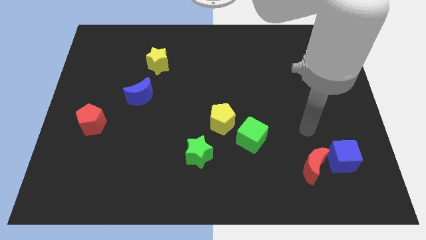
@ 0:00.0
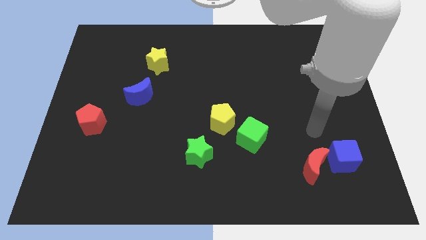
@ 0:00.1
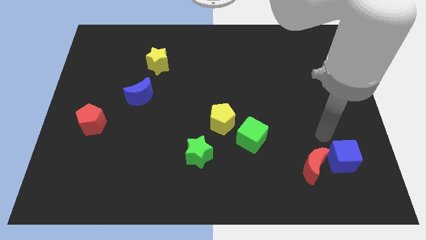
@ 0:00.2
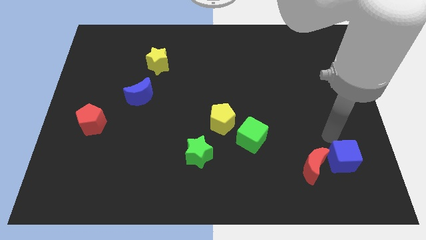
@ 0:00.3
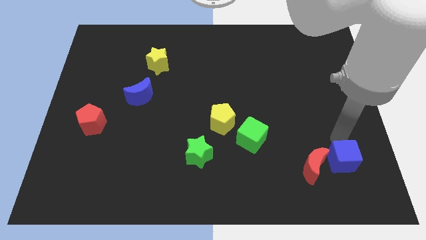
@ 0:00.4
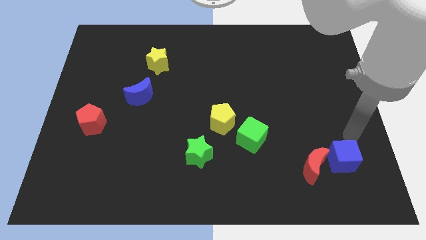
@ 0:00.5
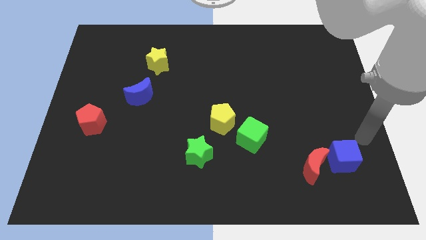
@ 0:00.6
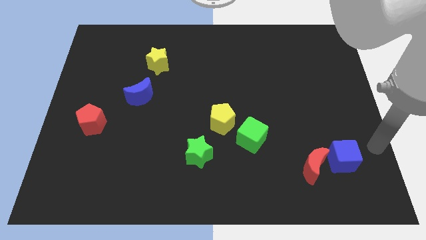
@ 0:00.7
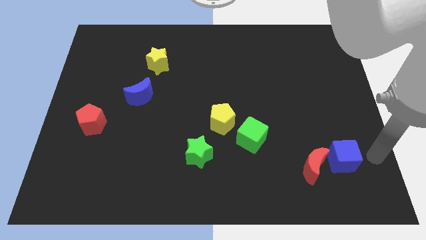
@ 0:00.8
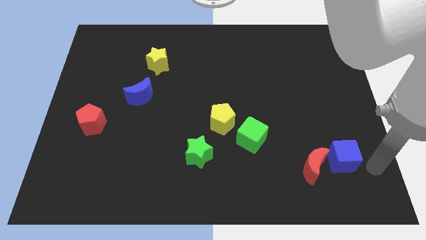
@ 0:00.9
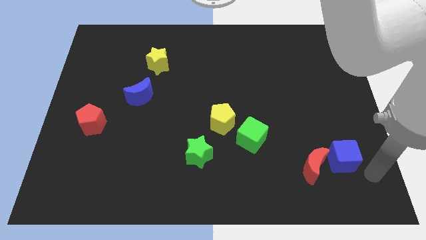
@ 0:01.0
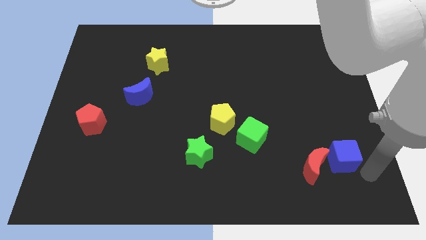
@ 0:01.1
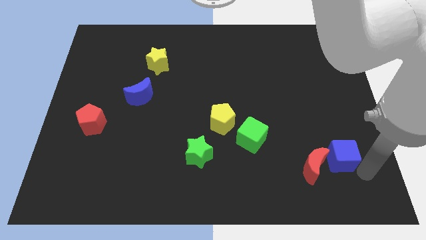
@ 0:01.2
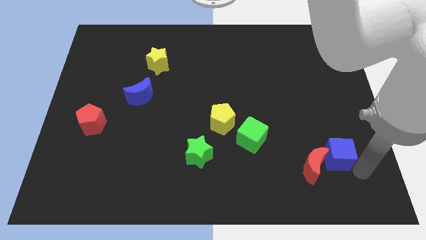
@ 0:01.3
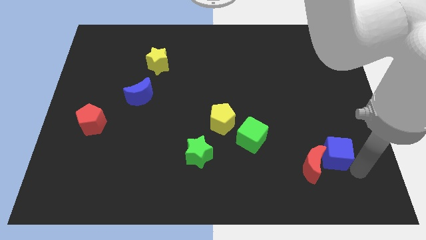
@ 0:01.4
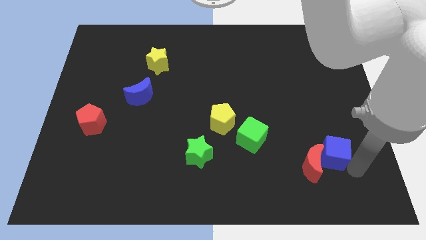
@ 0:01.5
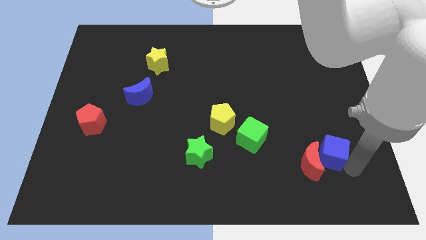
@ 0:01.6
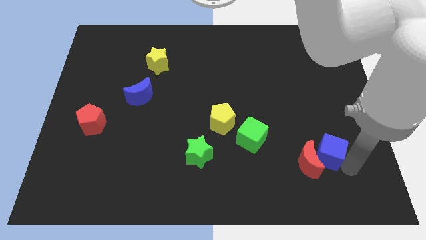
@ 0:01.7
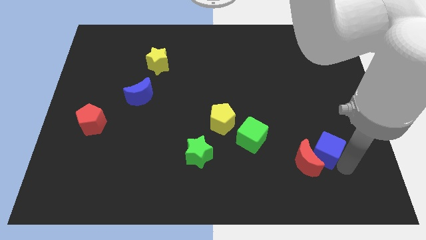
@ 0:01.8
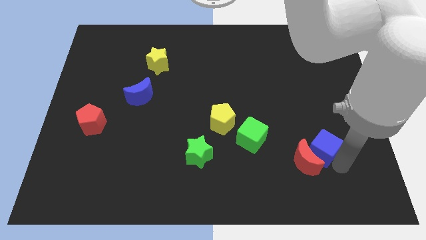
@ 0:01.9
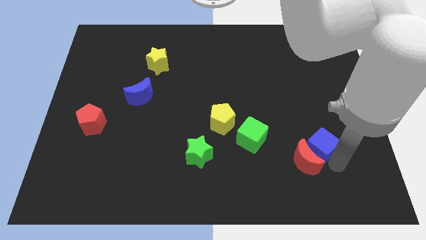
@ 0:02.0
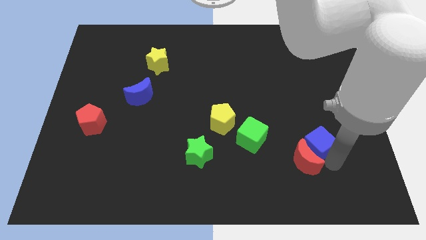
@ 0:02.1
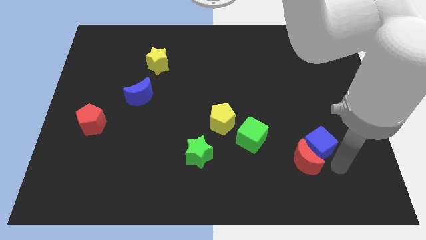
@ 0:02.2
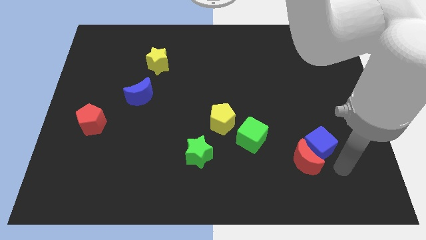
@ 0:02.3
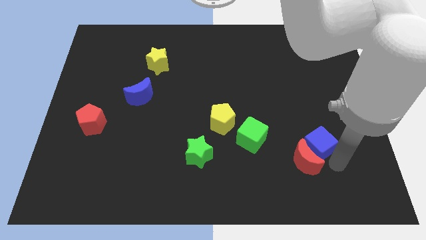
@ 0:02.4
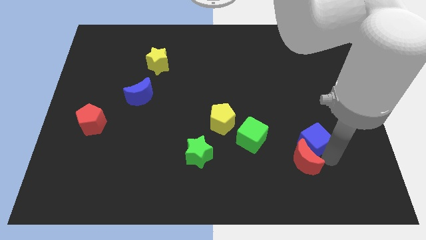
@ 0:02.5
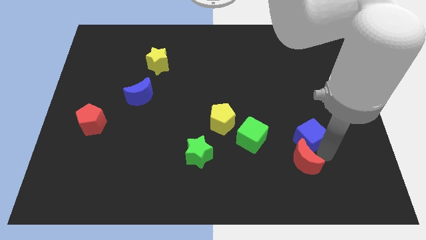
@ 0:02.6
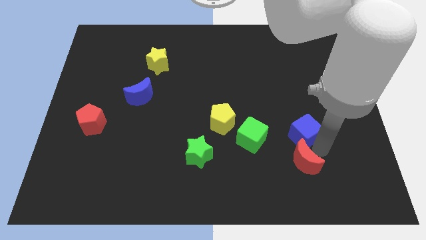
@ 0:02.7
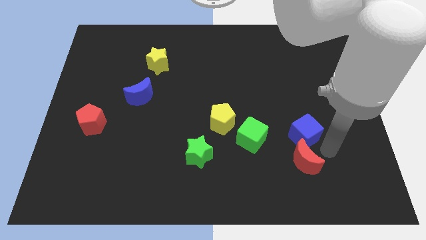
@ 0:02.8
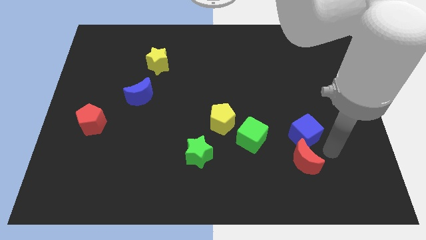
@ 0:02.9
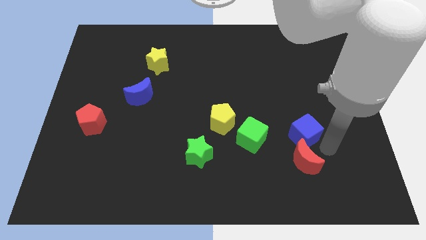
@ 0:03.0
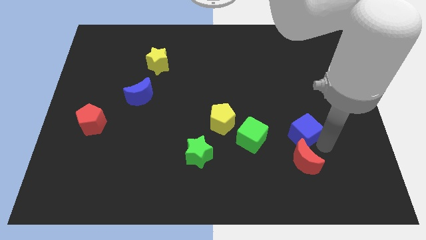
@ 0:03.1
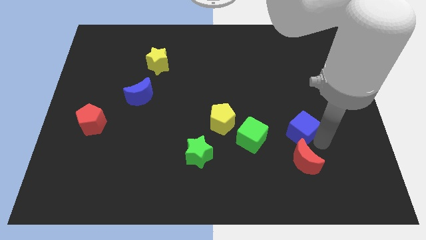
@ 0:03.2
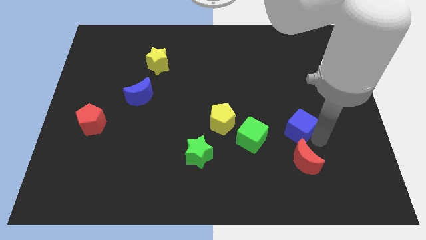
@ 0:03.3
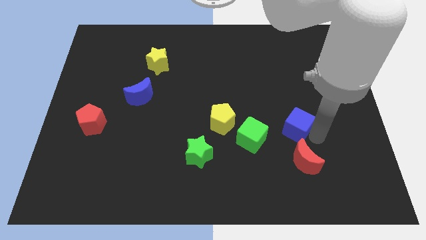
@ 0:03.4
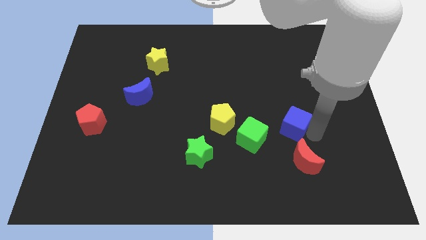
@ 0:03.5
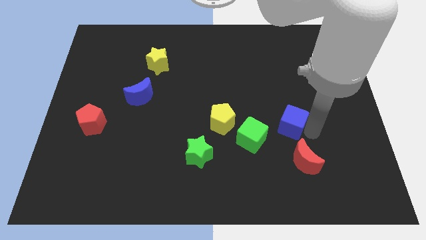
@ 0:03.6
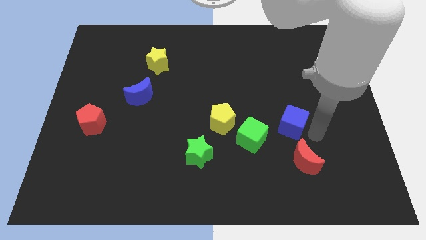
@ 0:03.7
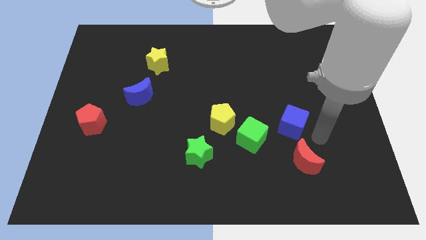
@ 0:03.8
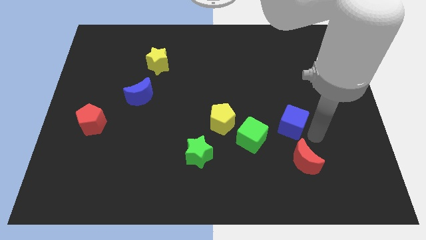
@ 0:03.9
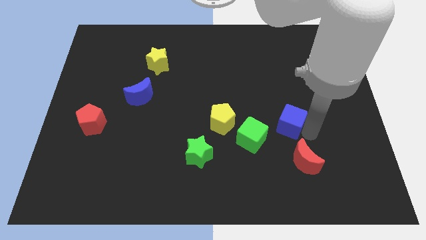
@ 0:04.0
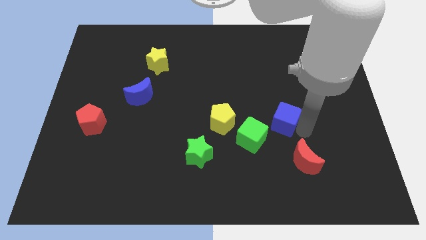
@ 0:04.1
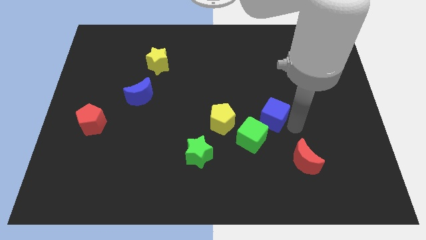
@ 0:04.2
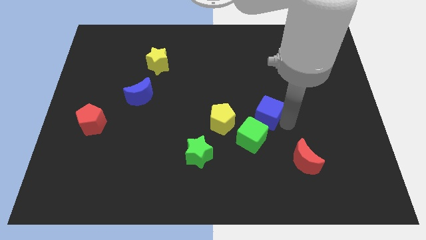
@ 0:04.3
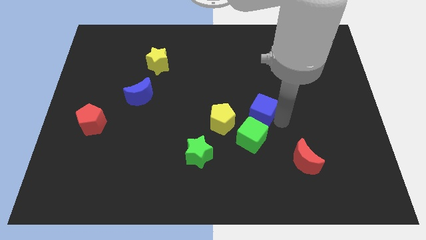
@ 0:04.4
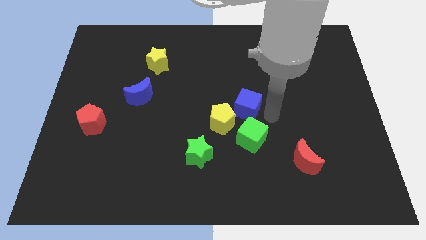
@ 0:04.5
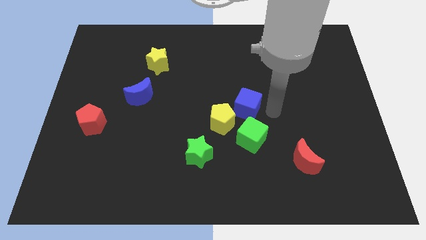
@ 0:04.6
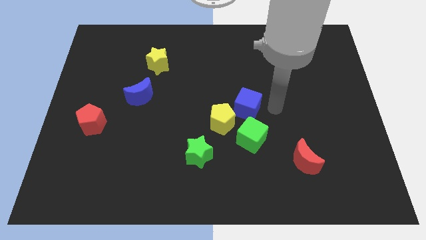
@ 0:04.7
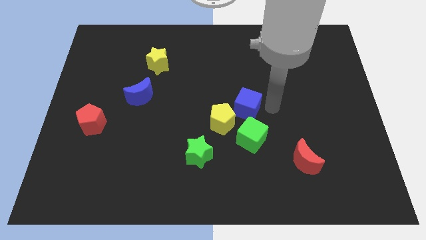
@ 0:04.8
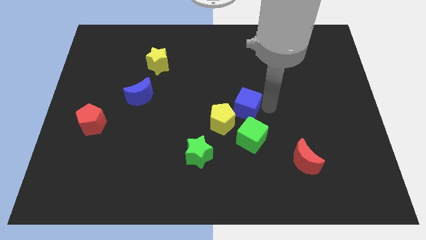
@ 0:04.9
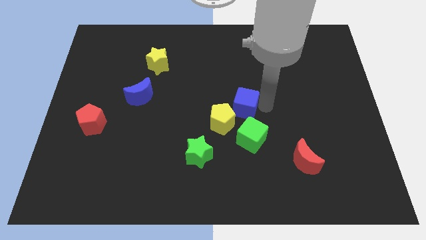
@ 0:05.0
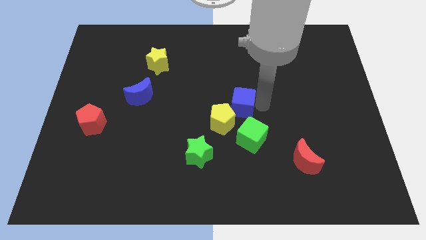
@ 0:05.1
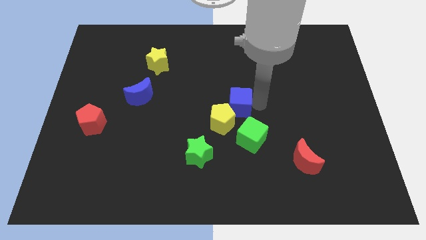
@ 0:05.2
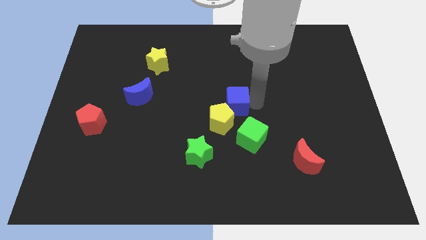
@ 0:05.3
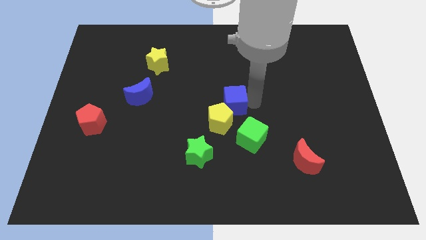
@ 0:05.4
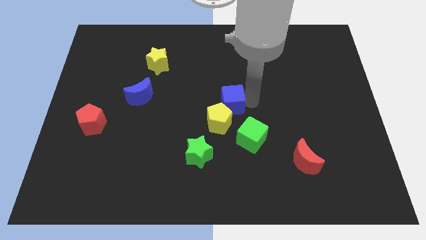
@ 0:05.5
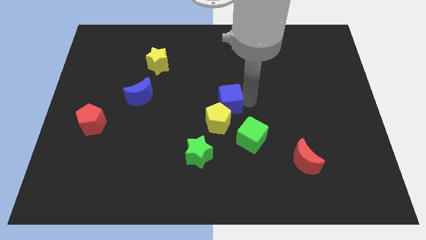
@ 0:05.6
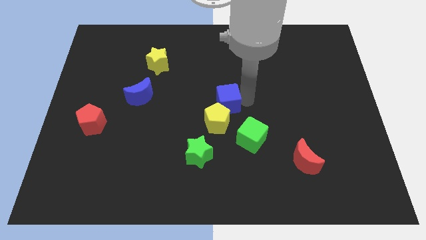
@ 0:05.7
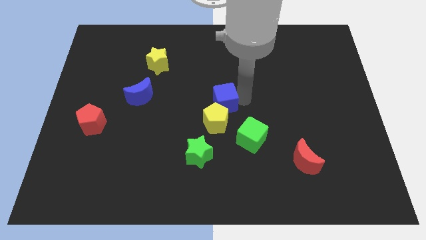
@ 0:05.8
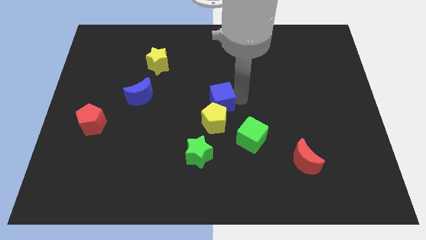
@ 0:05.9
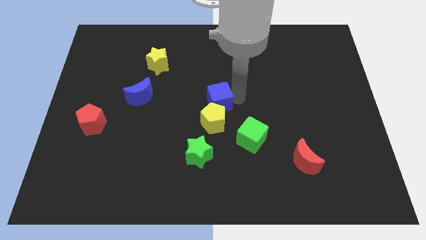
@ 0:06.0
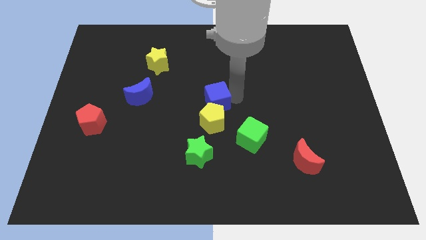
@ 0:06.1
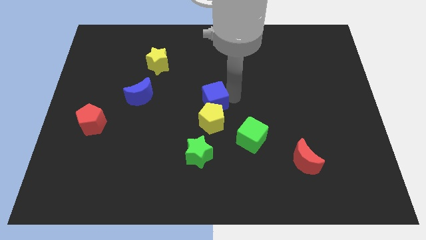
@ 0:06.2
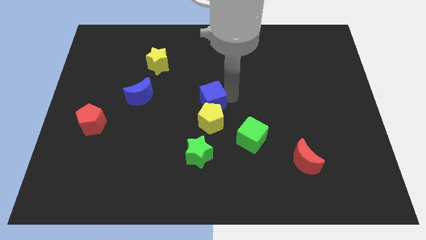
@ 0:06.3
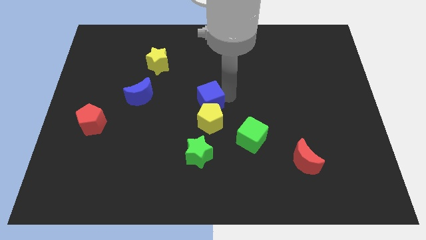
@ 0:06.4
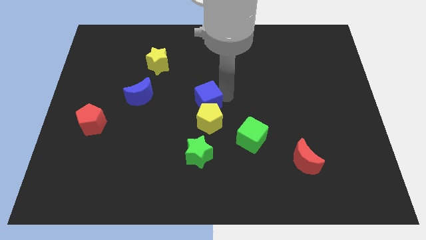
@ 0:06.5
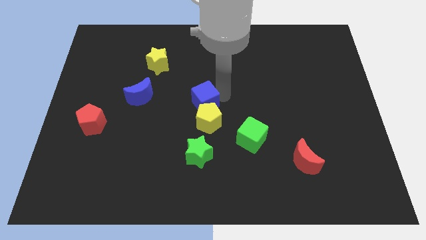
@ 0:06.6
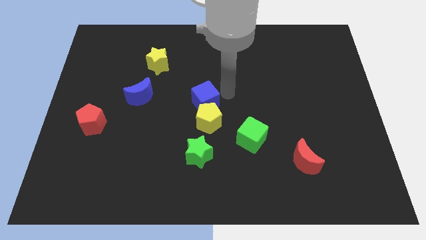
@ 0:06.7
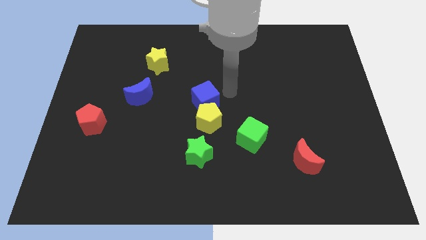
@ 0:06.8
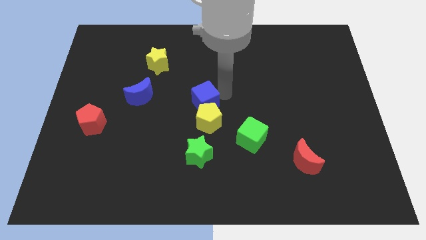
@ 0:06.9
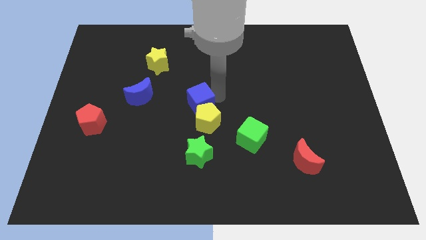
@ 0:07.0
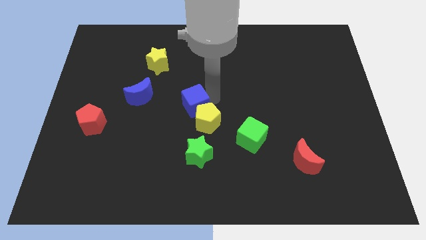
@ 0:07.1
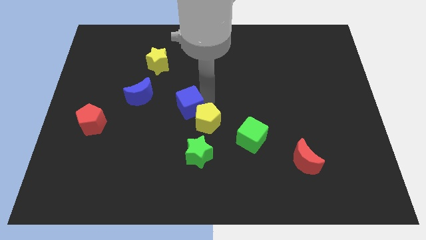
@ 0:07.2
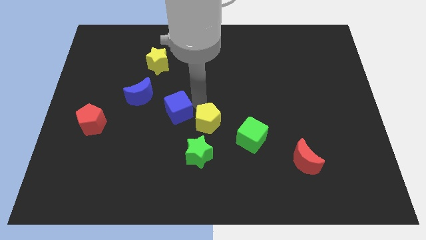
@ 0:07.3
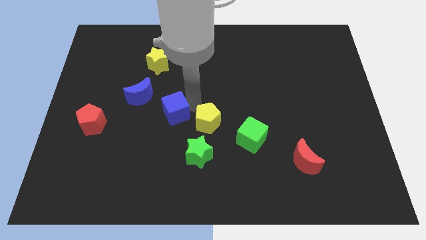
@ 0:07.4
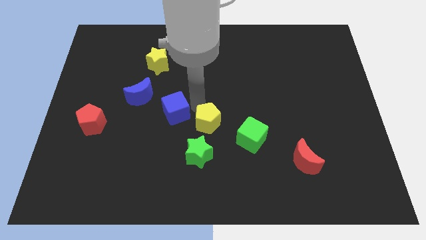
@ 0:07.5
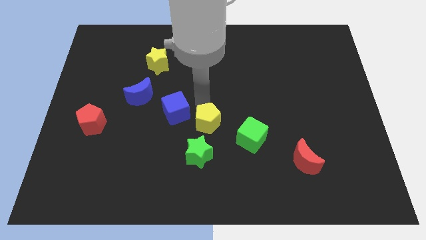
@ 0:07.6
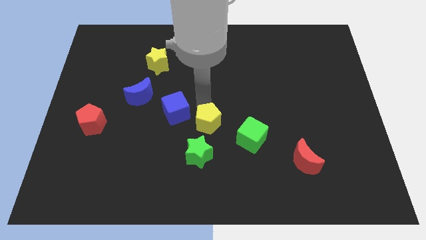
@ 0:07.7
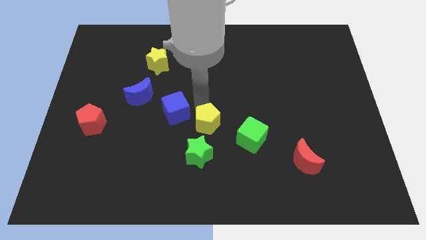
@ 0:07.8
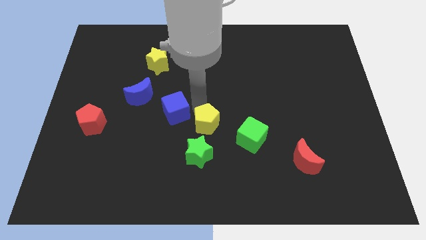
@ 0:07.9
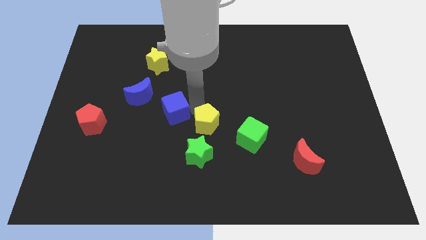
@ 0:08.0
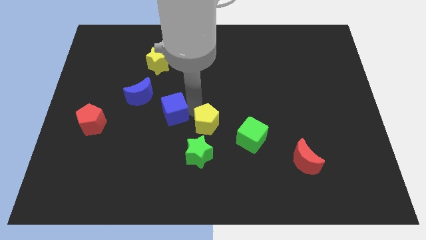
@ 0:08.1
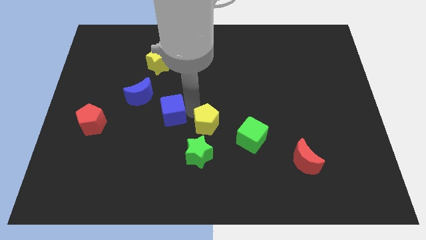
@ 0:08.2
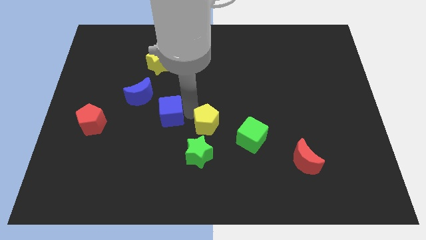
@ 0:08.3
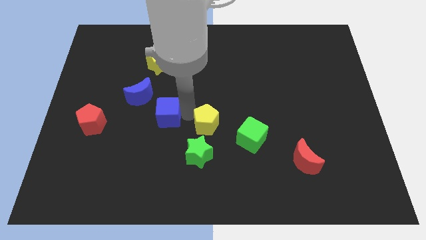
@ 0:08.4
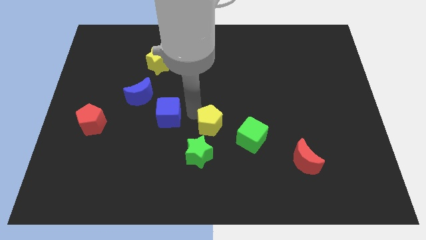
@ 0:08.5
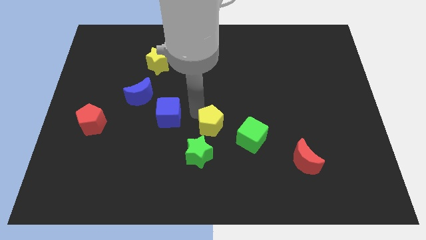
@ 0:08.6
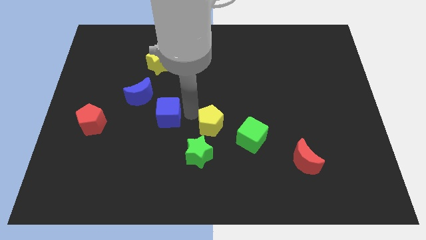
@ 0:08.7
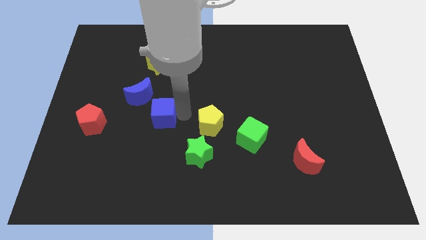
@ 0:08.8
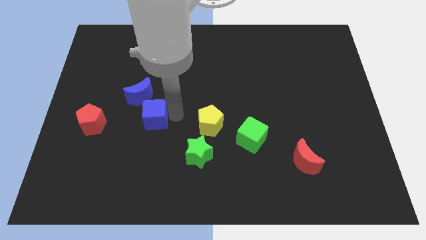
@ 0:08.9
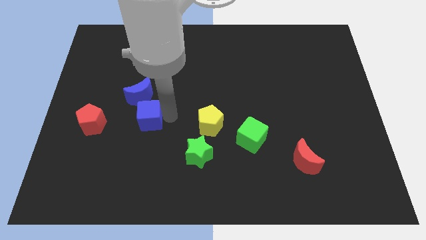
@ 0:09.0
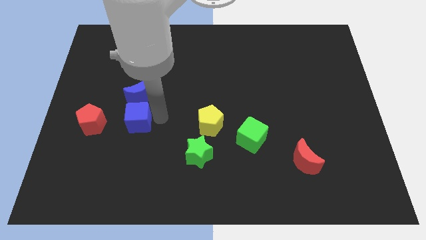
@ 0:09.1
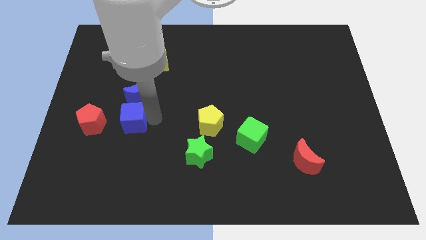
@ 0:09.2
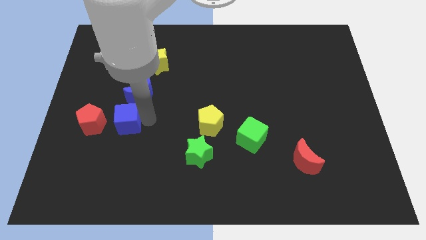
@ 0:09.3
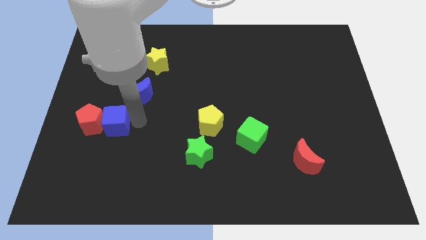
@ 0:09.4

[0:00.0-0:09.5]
slide the blue cube to the red pentagon
